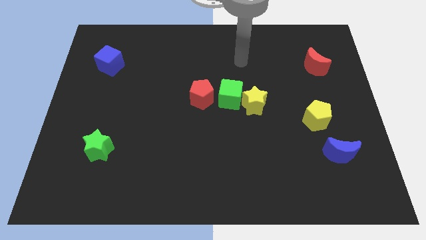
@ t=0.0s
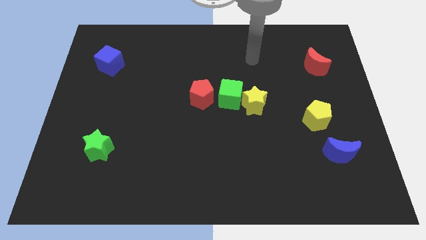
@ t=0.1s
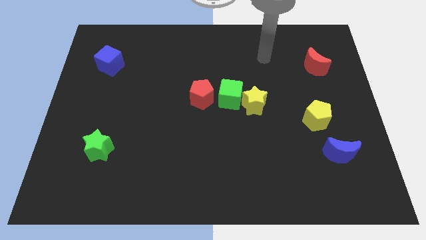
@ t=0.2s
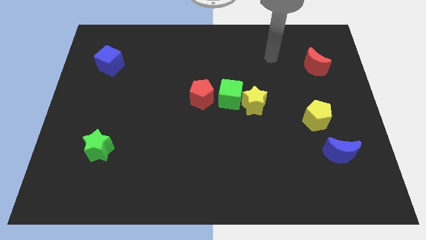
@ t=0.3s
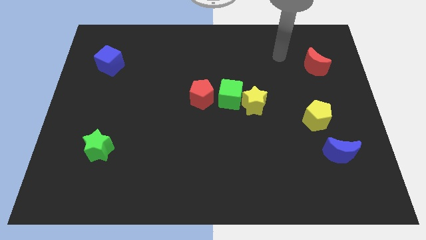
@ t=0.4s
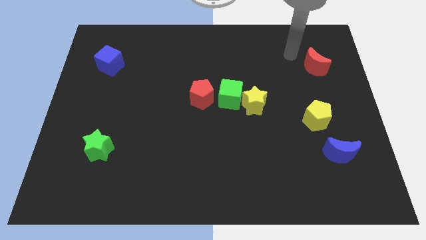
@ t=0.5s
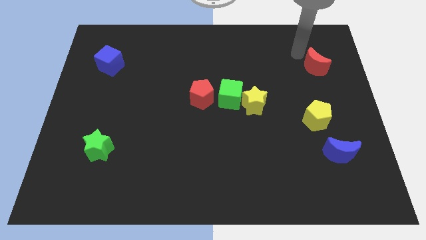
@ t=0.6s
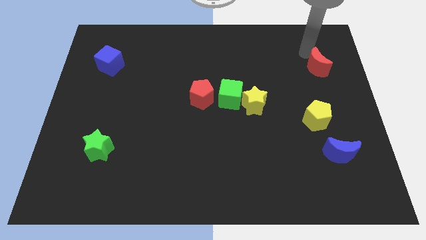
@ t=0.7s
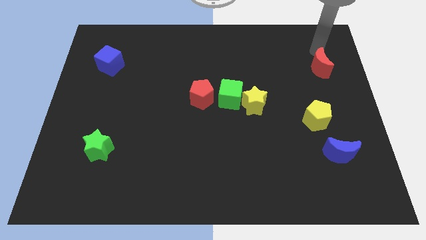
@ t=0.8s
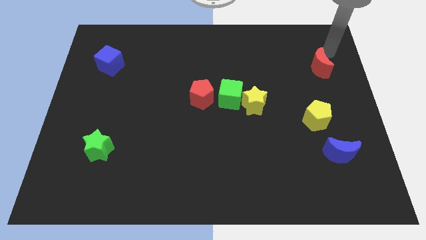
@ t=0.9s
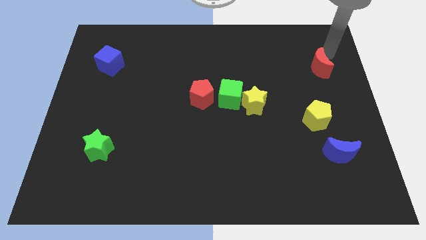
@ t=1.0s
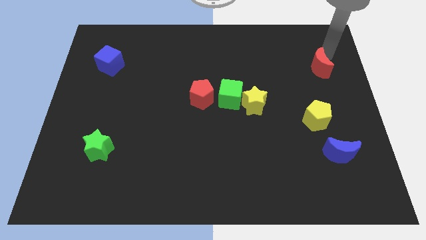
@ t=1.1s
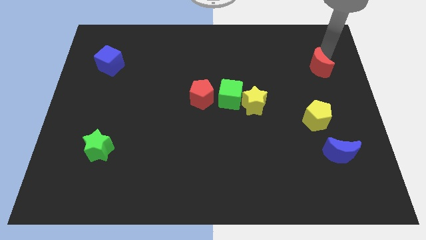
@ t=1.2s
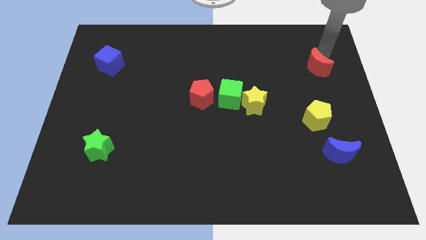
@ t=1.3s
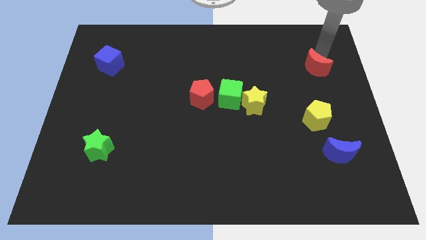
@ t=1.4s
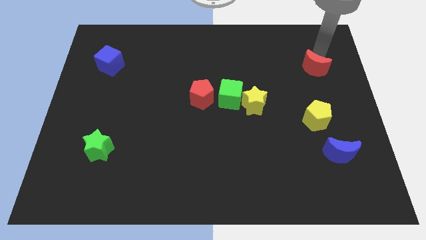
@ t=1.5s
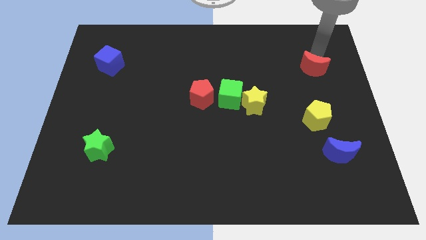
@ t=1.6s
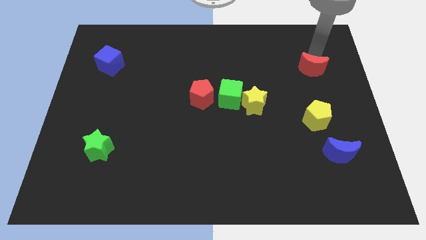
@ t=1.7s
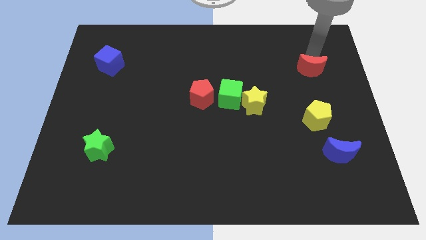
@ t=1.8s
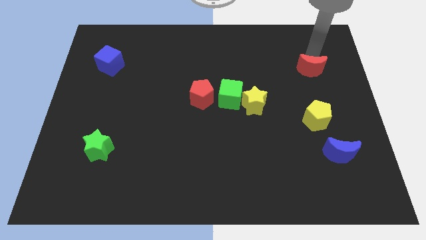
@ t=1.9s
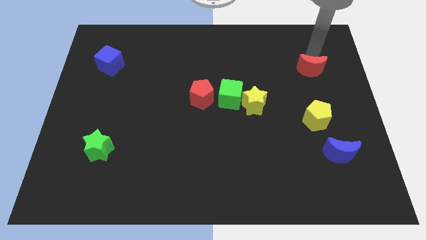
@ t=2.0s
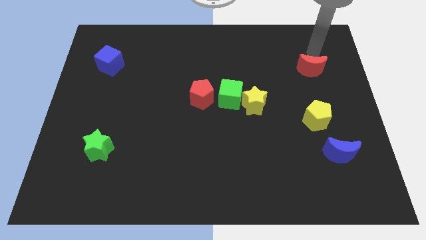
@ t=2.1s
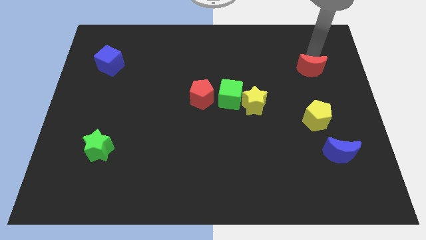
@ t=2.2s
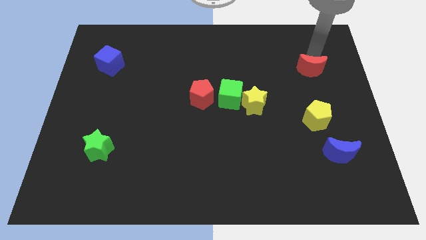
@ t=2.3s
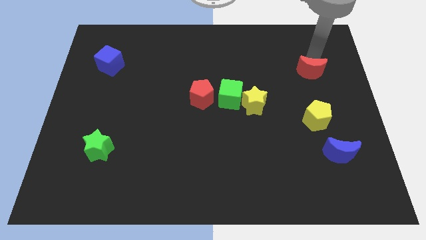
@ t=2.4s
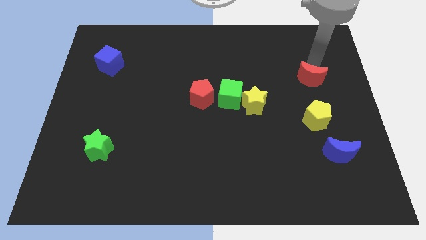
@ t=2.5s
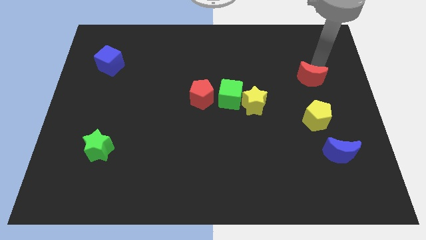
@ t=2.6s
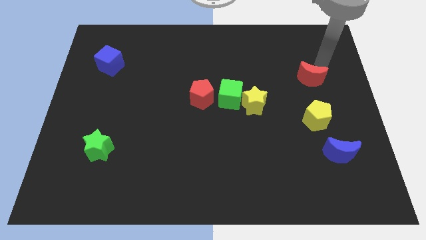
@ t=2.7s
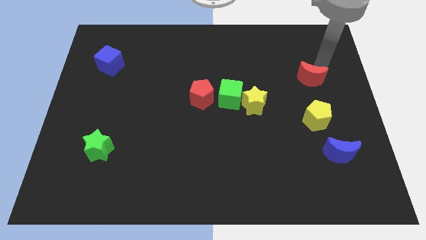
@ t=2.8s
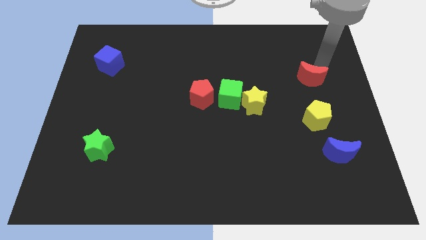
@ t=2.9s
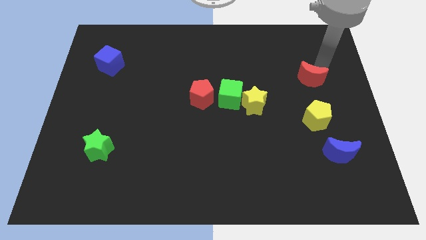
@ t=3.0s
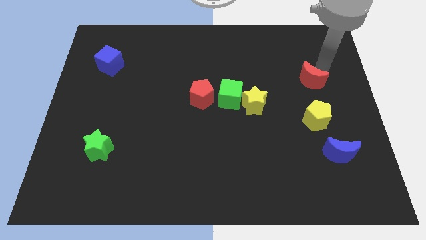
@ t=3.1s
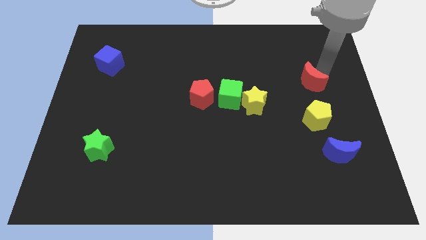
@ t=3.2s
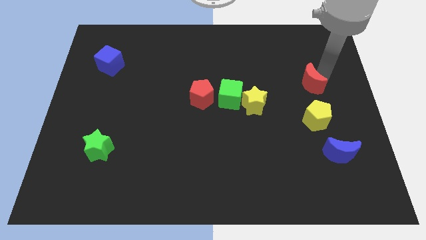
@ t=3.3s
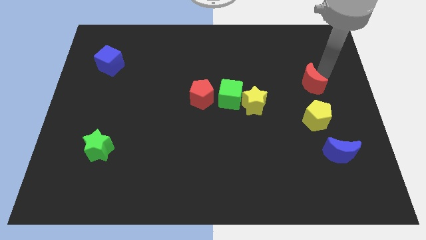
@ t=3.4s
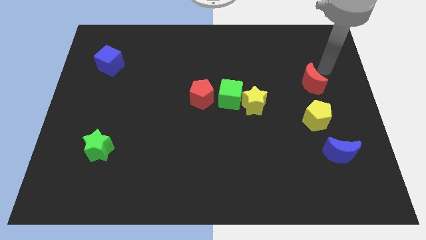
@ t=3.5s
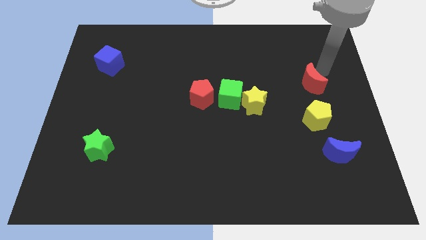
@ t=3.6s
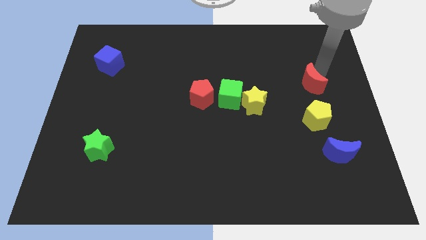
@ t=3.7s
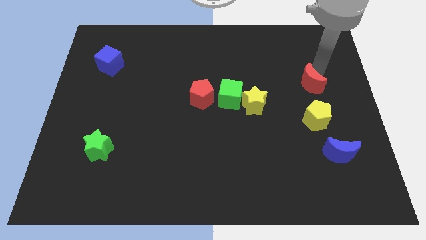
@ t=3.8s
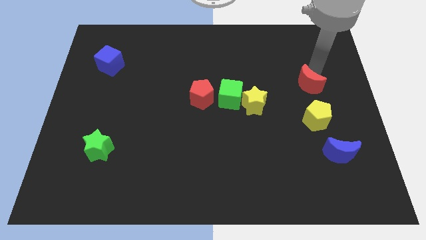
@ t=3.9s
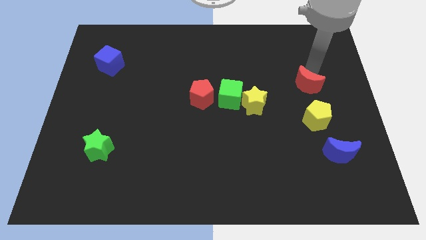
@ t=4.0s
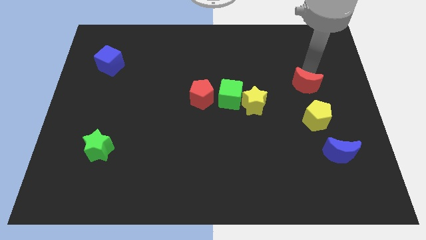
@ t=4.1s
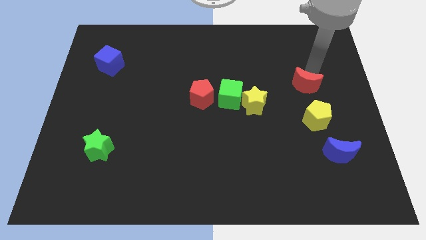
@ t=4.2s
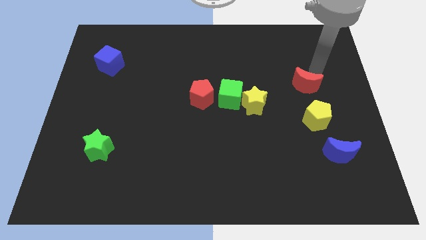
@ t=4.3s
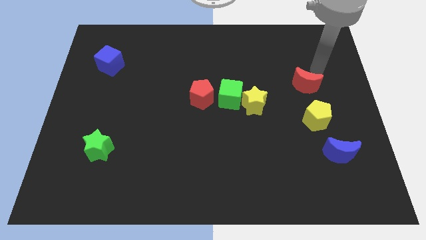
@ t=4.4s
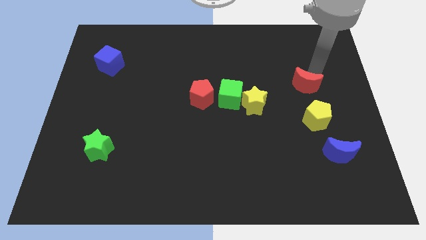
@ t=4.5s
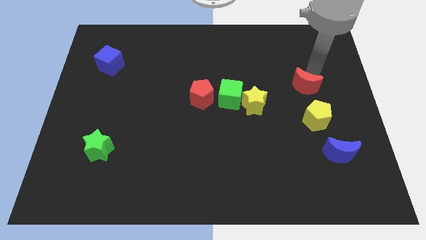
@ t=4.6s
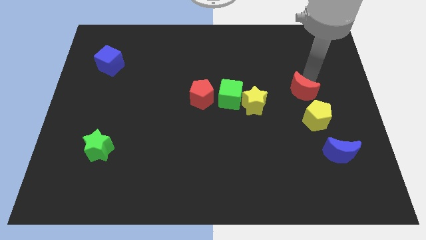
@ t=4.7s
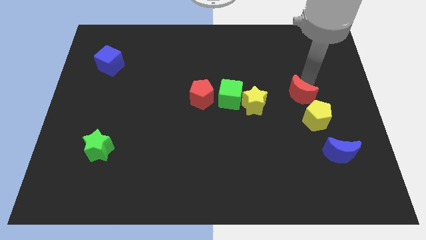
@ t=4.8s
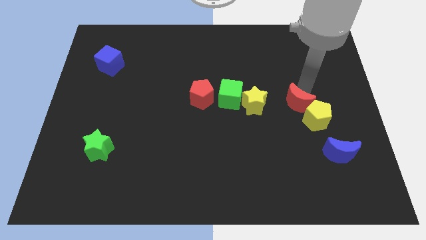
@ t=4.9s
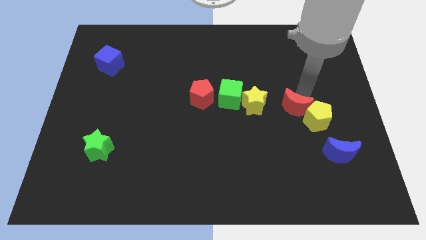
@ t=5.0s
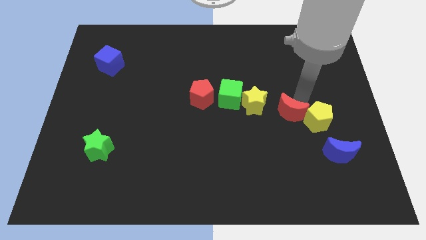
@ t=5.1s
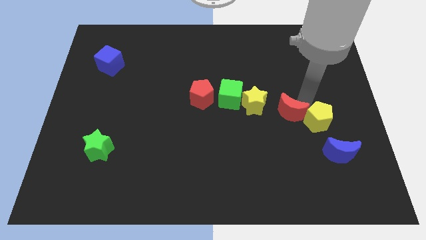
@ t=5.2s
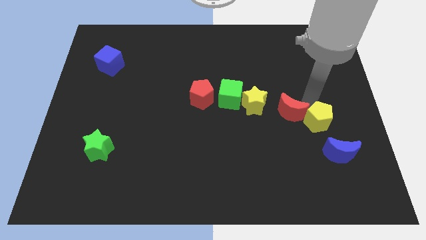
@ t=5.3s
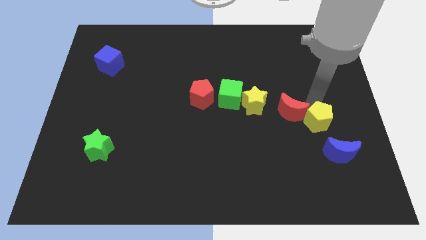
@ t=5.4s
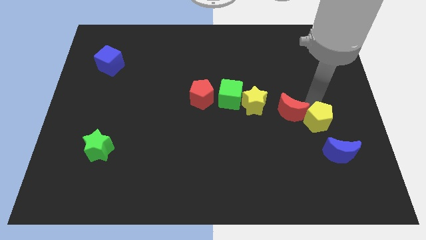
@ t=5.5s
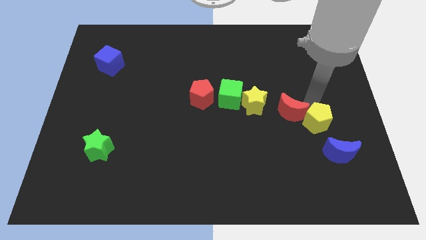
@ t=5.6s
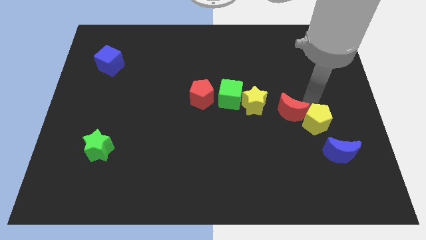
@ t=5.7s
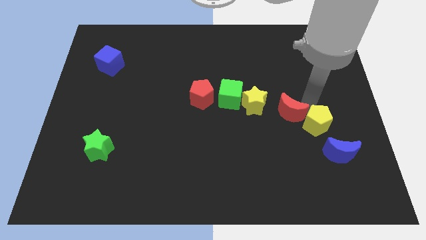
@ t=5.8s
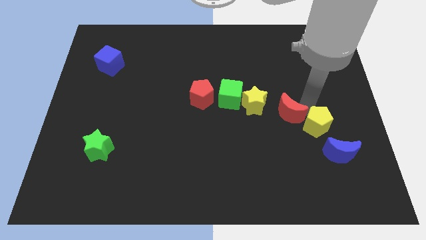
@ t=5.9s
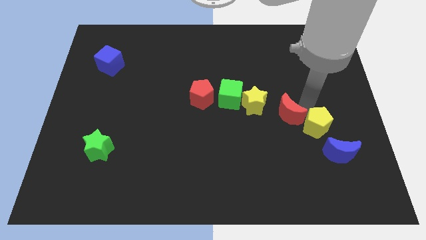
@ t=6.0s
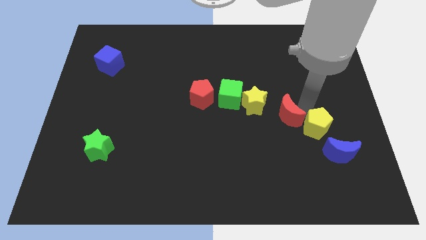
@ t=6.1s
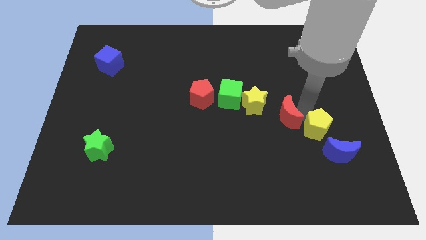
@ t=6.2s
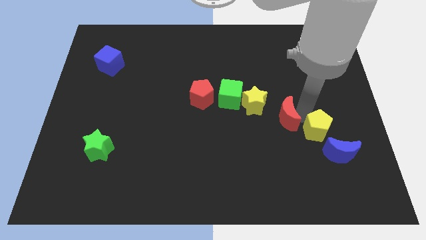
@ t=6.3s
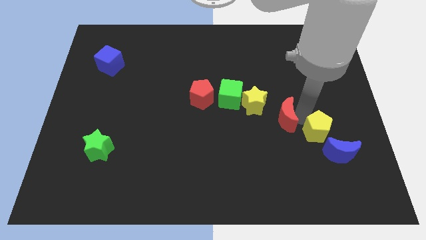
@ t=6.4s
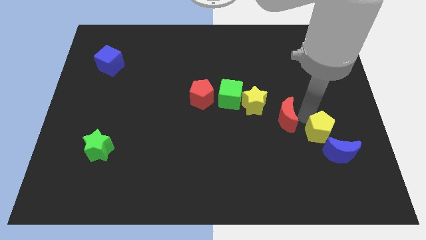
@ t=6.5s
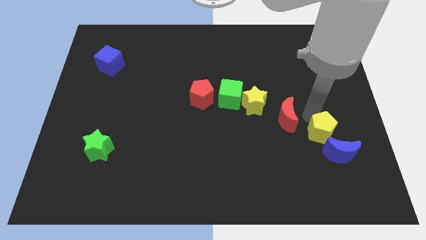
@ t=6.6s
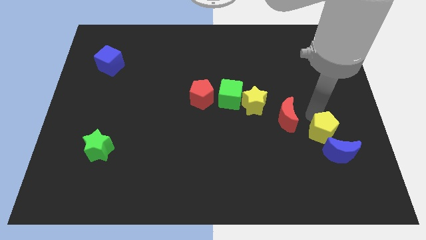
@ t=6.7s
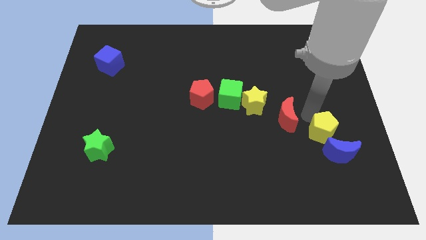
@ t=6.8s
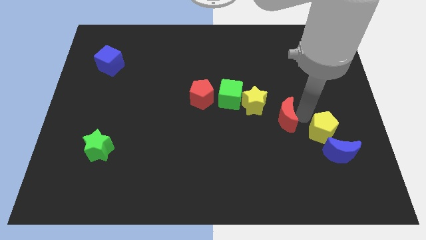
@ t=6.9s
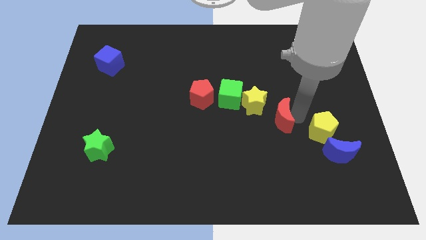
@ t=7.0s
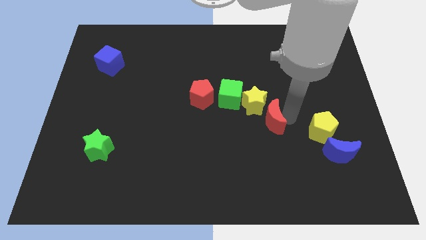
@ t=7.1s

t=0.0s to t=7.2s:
push the red moon diagonally downwards and to the left

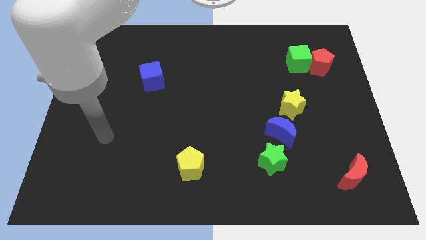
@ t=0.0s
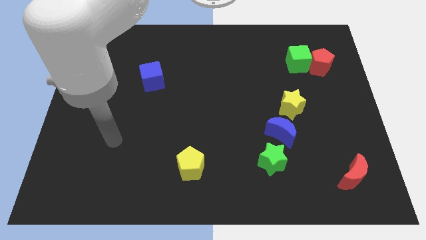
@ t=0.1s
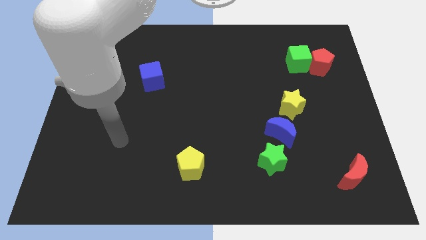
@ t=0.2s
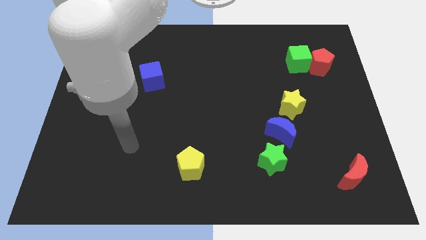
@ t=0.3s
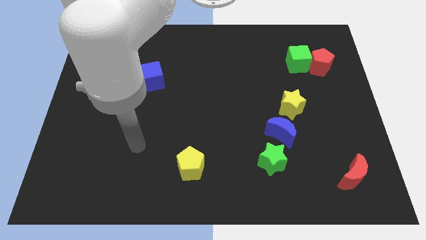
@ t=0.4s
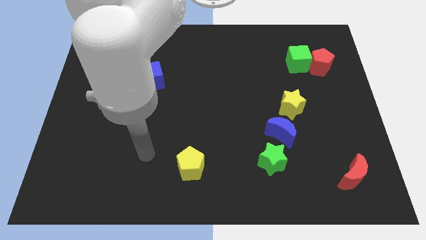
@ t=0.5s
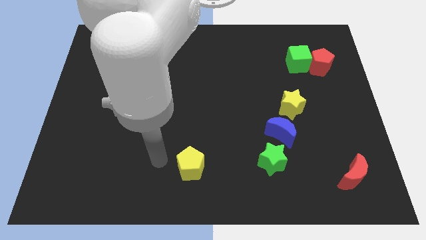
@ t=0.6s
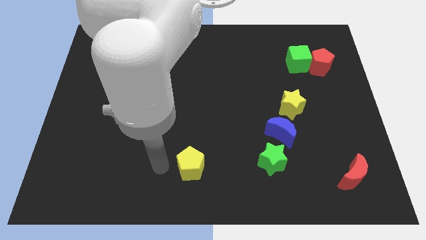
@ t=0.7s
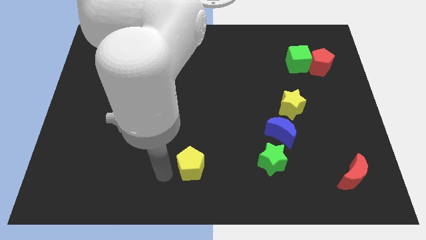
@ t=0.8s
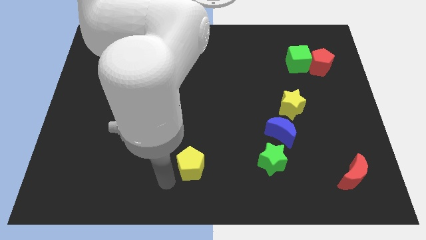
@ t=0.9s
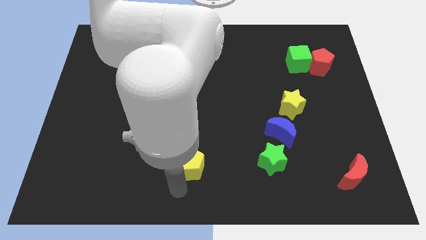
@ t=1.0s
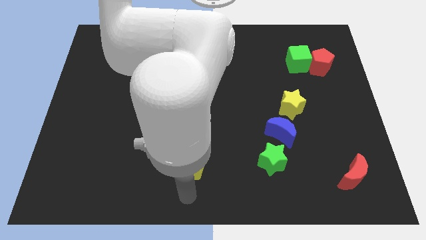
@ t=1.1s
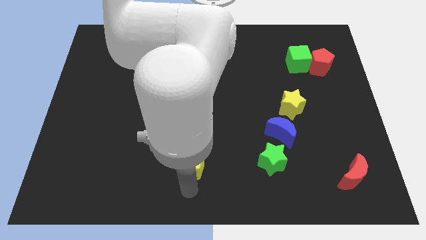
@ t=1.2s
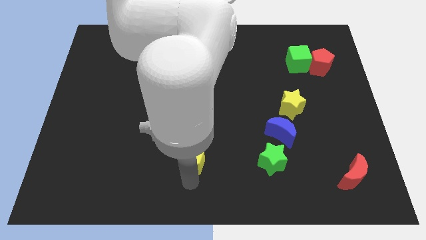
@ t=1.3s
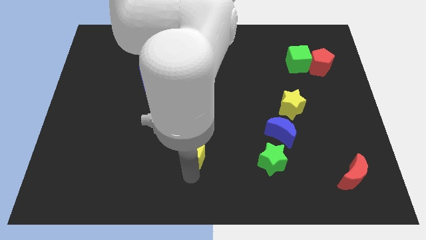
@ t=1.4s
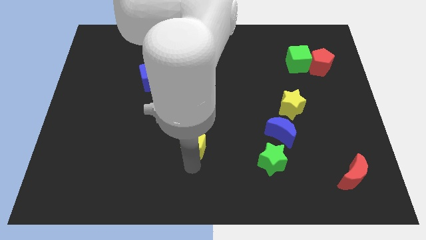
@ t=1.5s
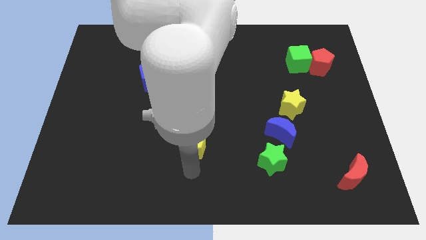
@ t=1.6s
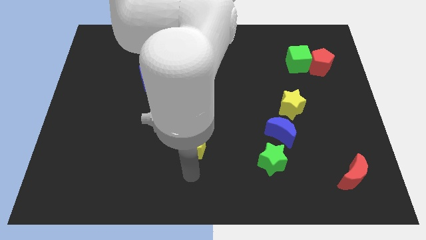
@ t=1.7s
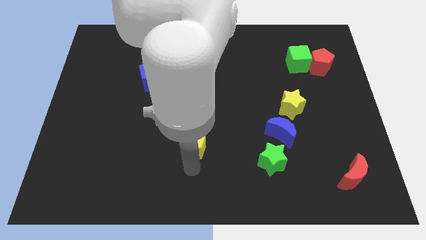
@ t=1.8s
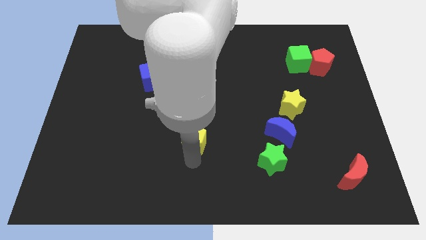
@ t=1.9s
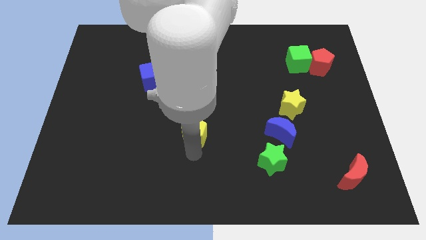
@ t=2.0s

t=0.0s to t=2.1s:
move the yellow pentagon up somewhat
